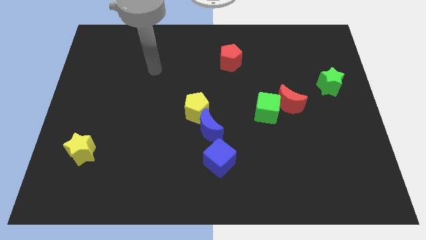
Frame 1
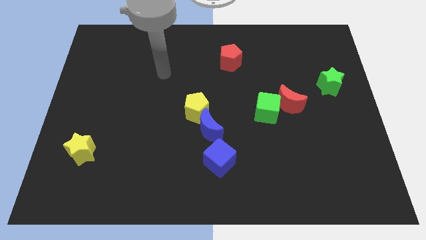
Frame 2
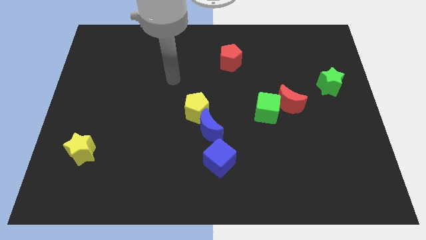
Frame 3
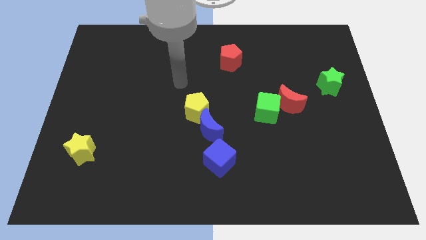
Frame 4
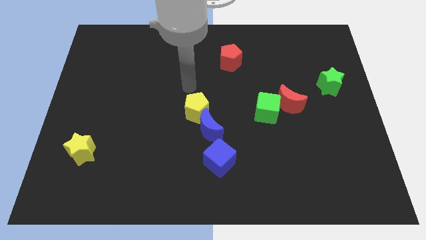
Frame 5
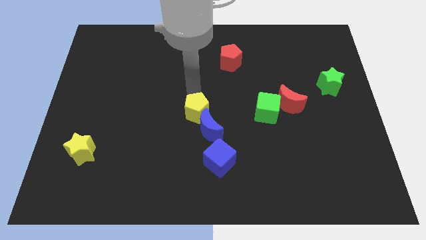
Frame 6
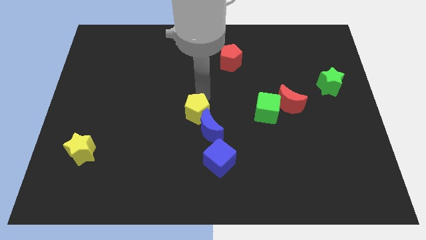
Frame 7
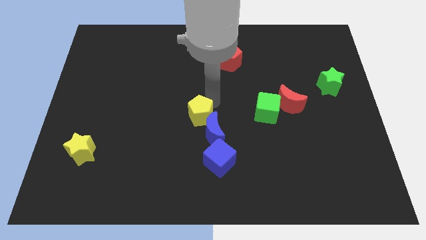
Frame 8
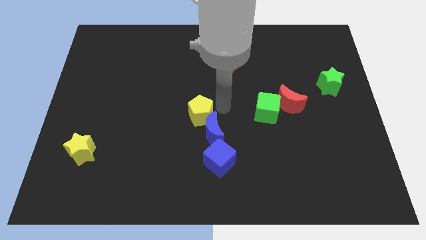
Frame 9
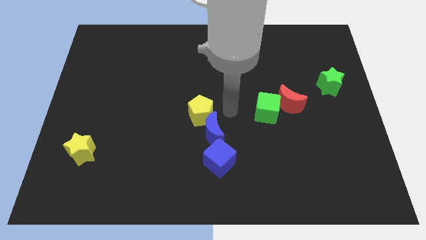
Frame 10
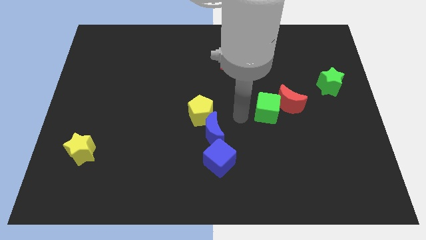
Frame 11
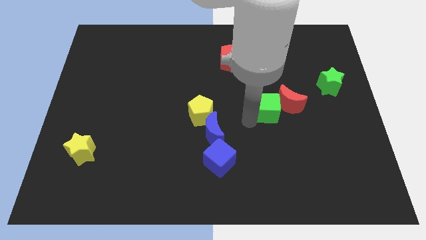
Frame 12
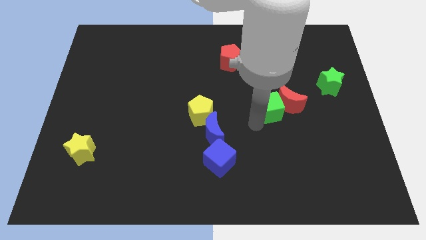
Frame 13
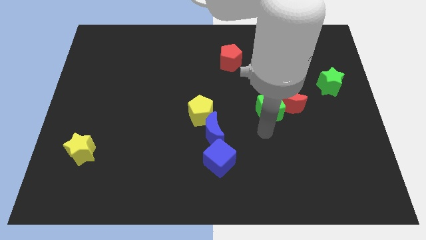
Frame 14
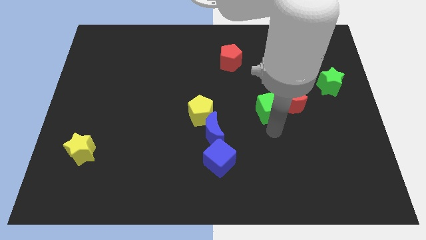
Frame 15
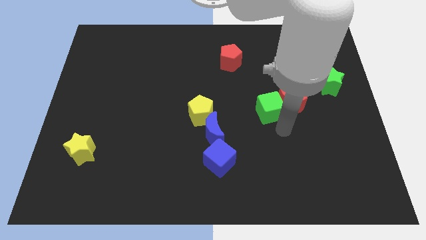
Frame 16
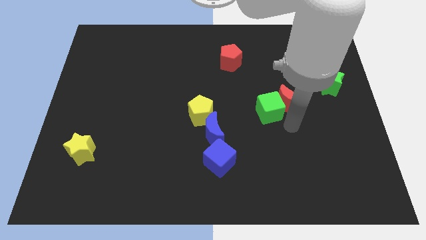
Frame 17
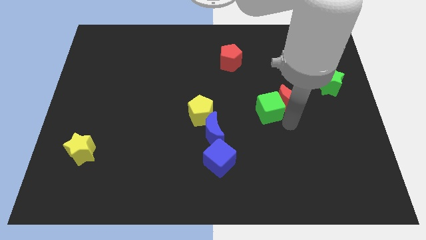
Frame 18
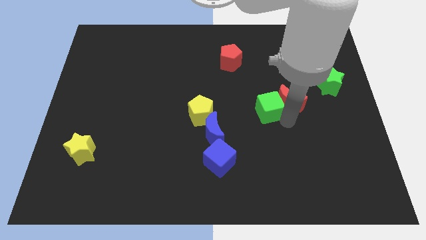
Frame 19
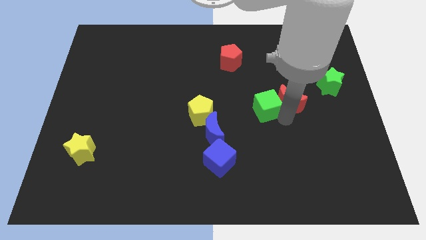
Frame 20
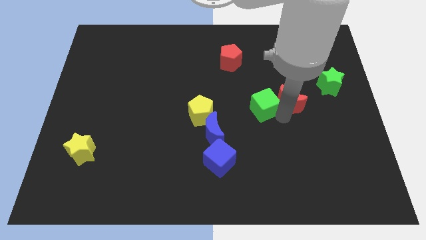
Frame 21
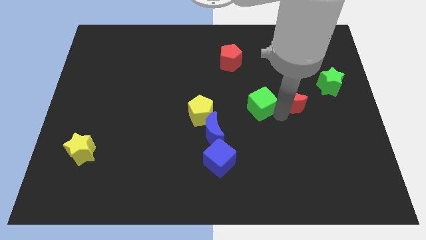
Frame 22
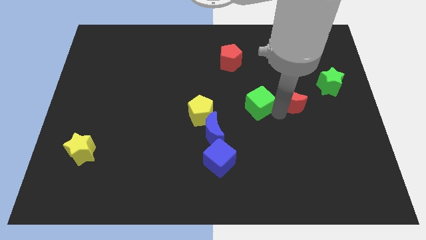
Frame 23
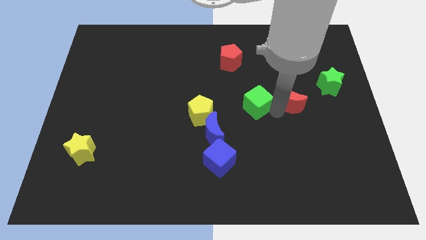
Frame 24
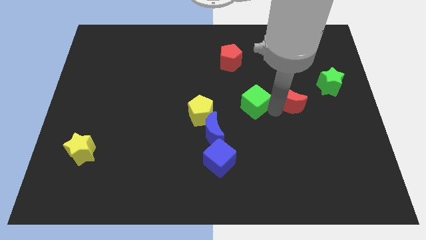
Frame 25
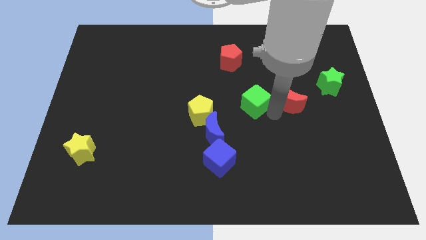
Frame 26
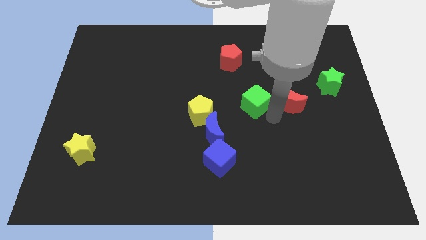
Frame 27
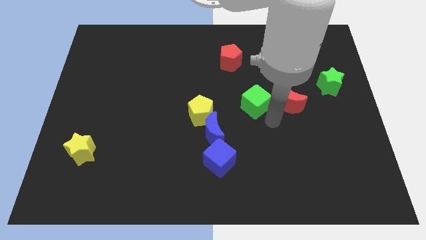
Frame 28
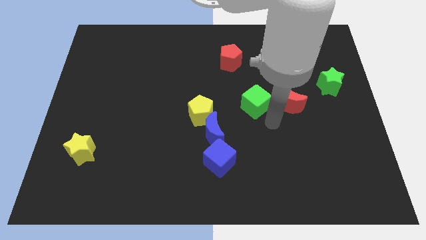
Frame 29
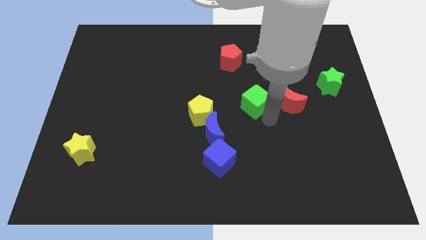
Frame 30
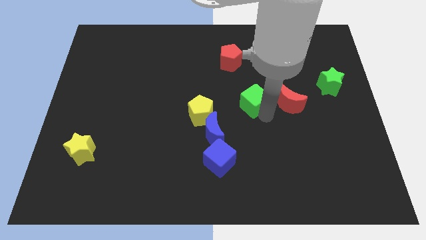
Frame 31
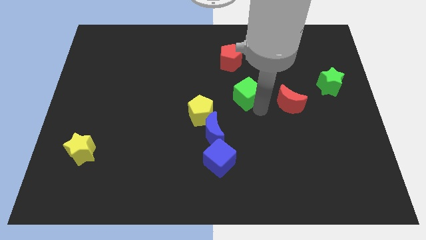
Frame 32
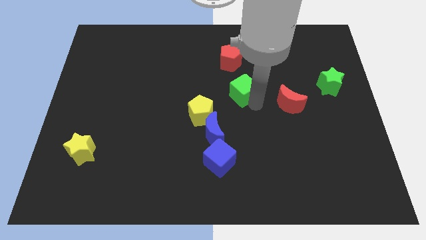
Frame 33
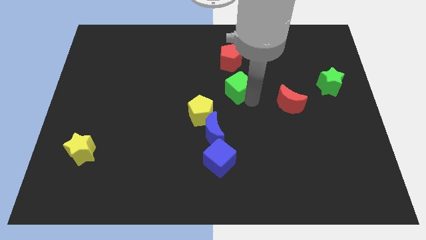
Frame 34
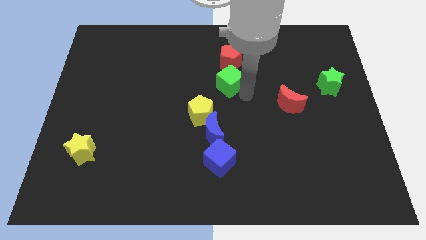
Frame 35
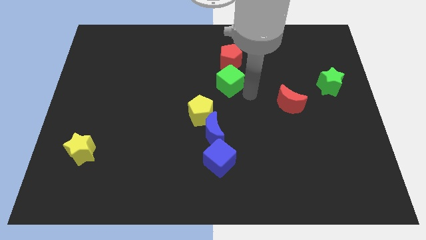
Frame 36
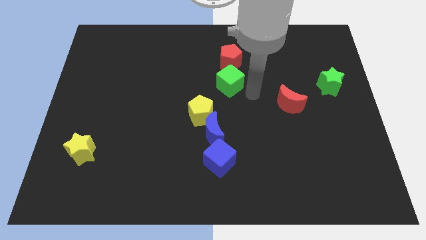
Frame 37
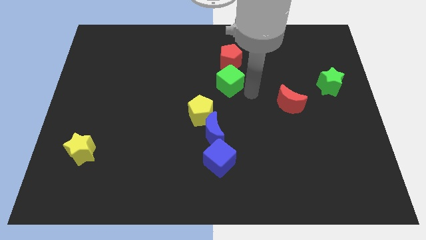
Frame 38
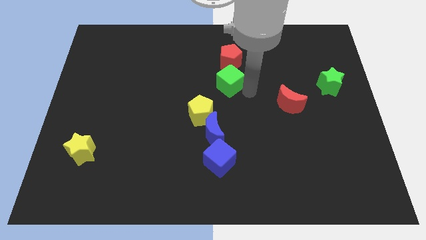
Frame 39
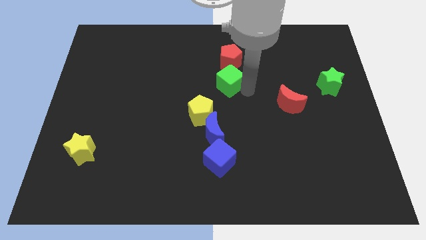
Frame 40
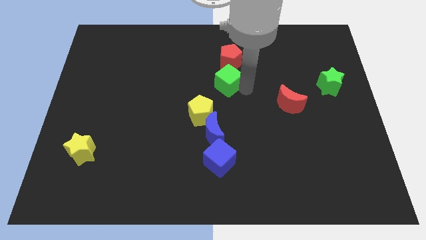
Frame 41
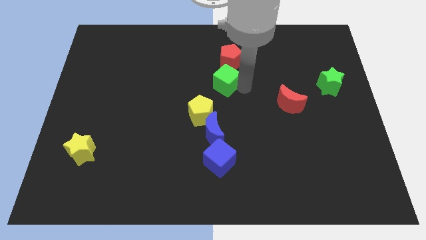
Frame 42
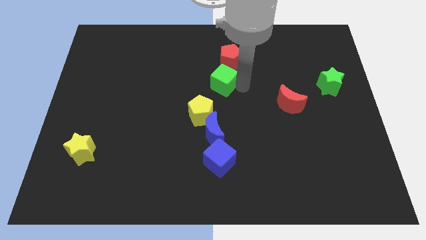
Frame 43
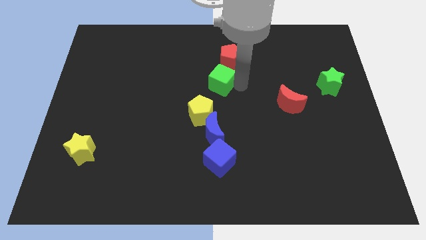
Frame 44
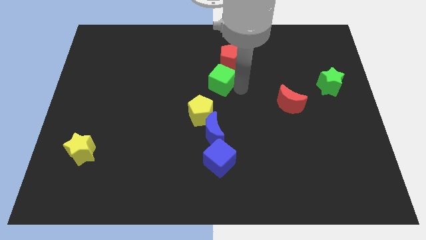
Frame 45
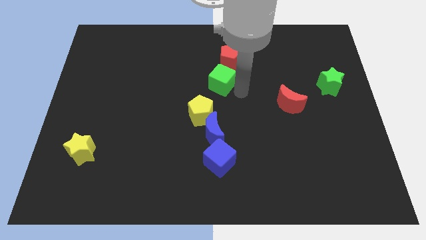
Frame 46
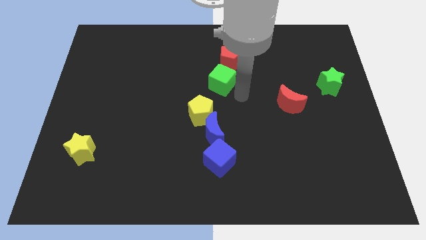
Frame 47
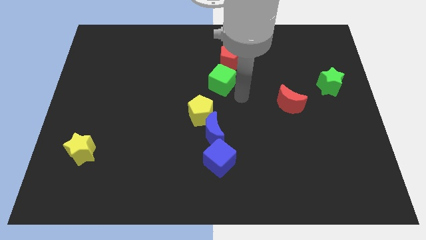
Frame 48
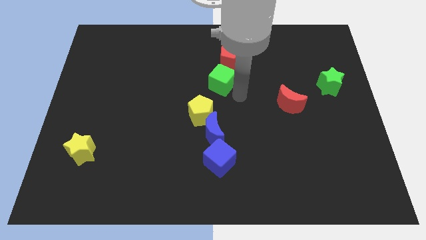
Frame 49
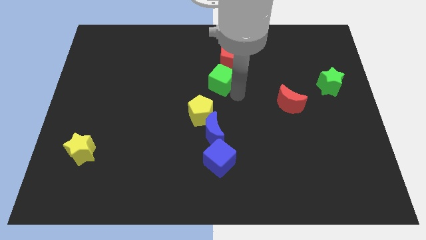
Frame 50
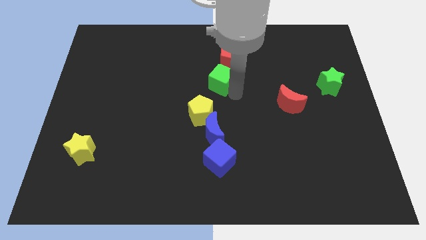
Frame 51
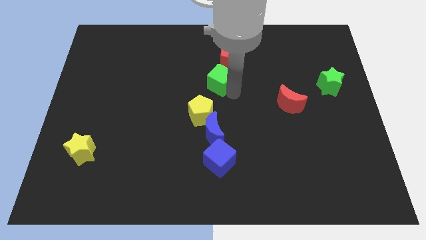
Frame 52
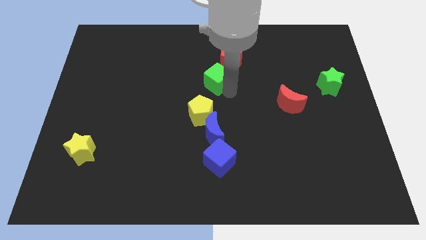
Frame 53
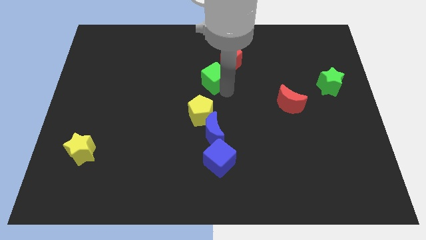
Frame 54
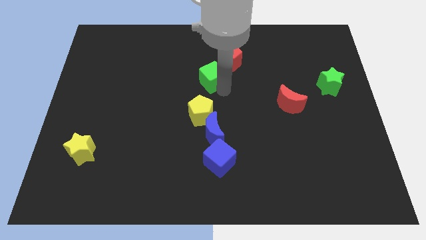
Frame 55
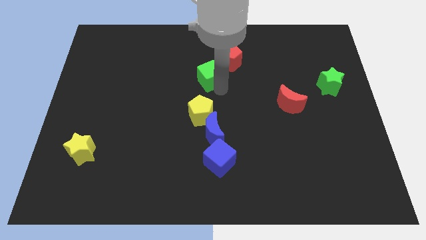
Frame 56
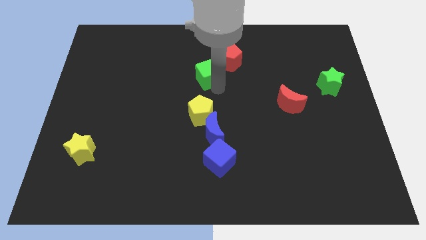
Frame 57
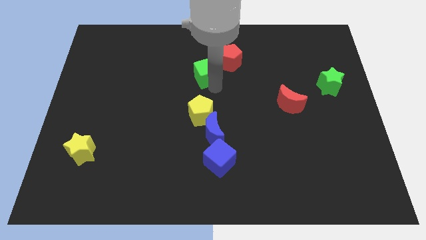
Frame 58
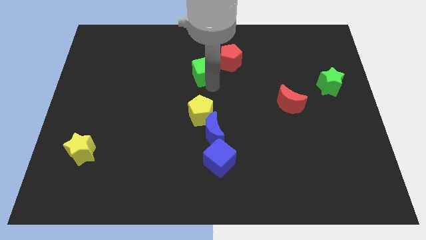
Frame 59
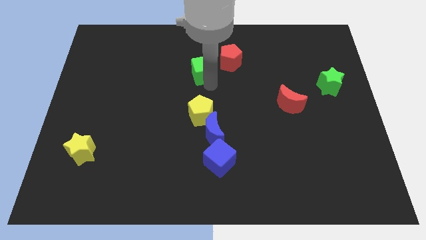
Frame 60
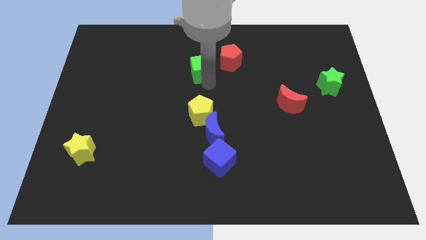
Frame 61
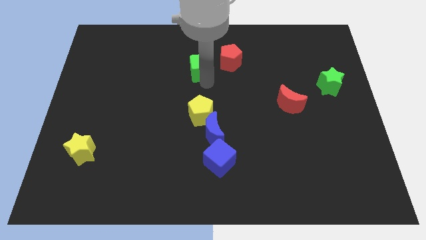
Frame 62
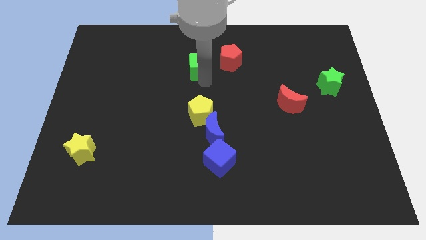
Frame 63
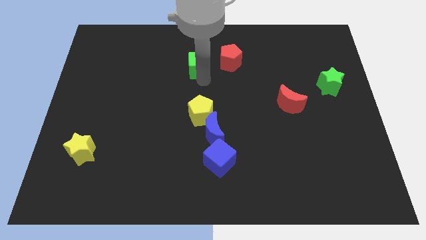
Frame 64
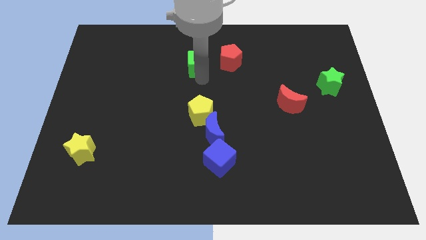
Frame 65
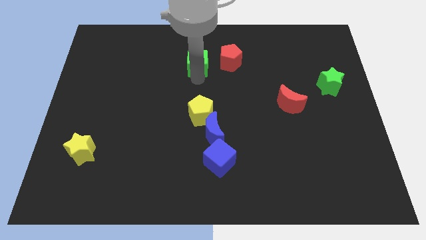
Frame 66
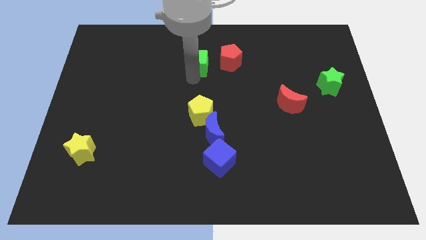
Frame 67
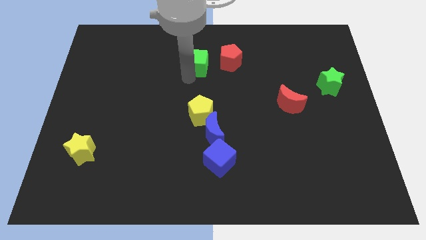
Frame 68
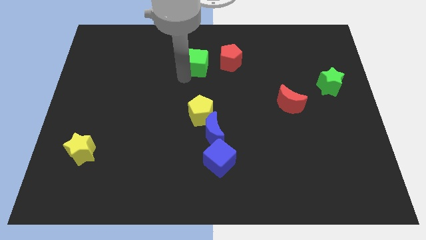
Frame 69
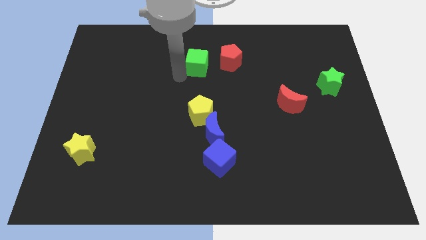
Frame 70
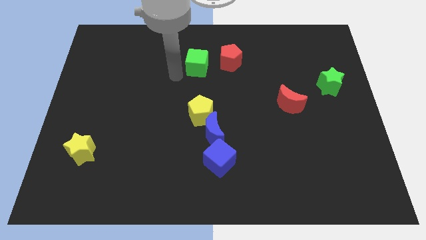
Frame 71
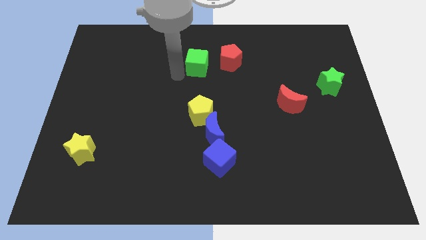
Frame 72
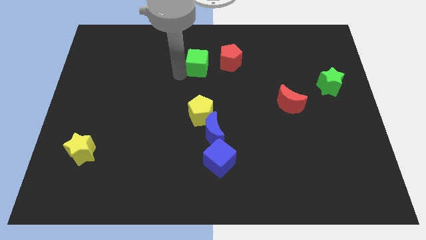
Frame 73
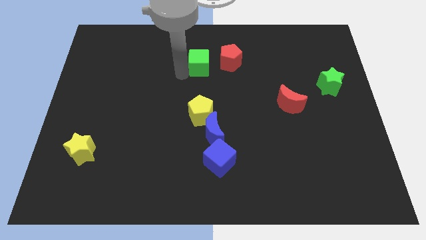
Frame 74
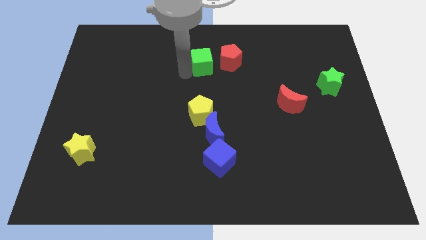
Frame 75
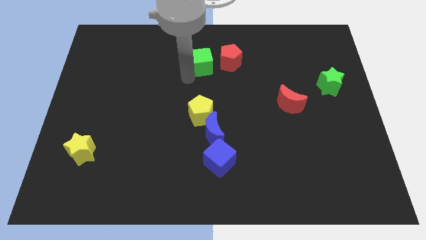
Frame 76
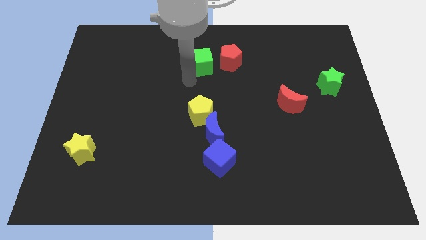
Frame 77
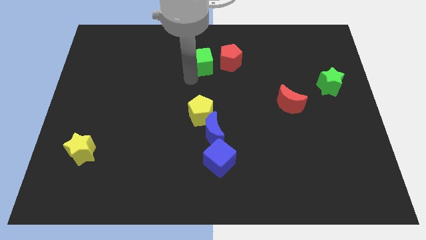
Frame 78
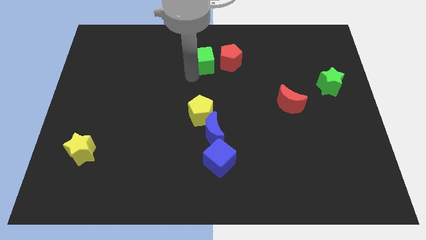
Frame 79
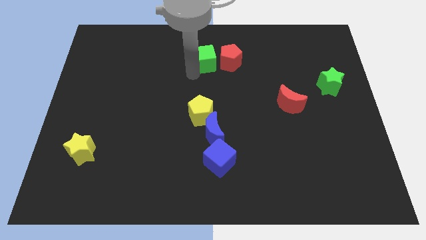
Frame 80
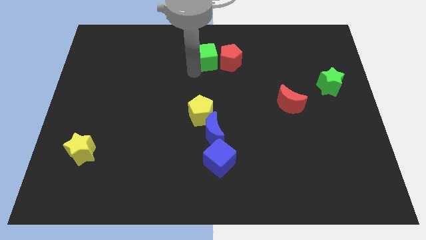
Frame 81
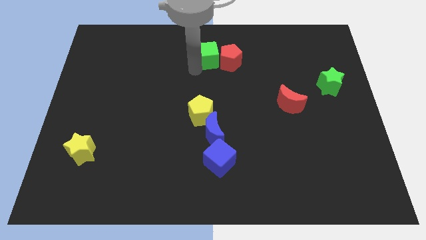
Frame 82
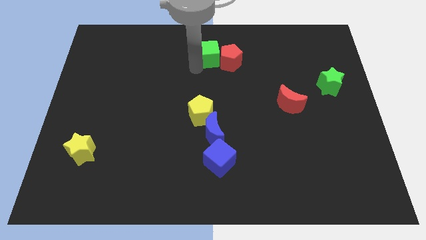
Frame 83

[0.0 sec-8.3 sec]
put the green cube to the towards your base
